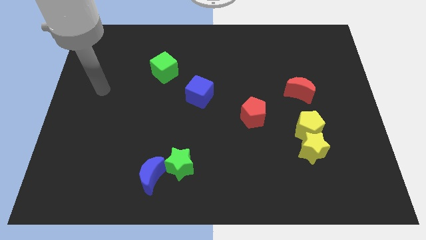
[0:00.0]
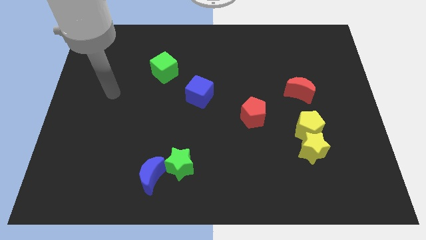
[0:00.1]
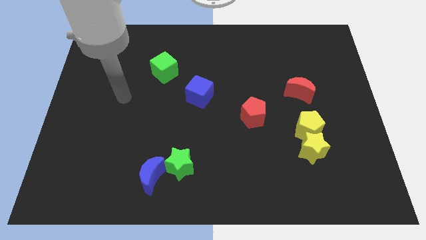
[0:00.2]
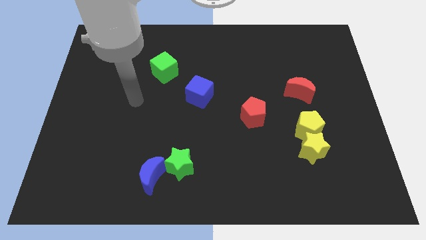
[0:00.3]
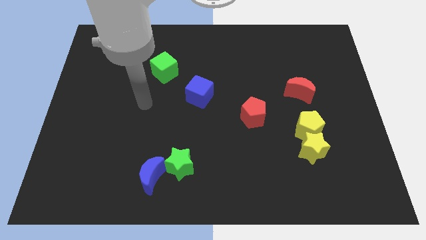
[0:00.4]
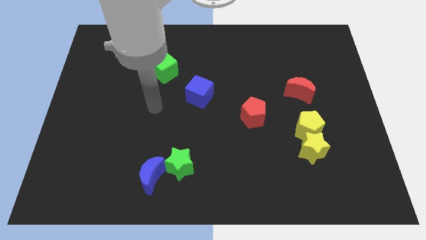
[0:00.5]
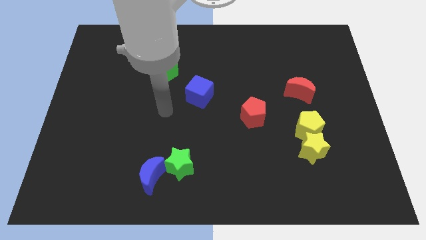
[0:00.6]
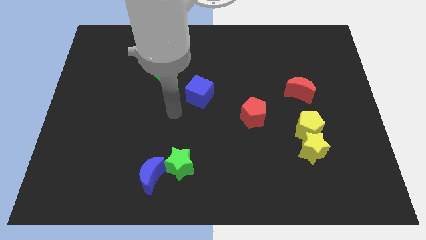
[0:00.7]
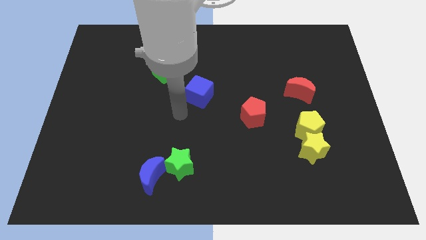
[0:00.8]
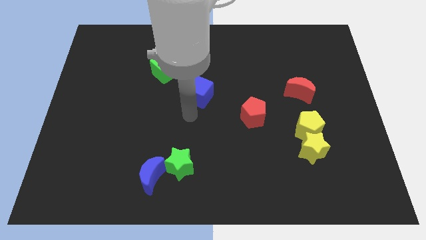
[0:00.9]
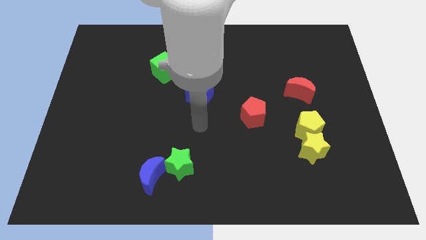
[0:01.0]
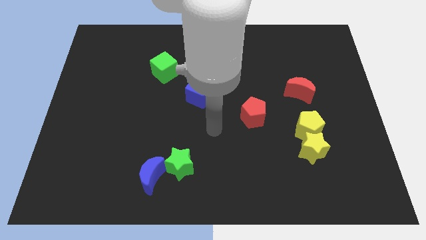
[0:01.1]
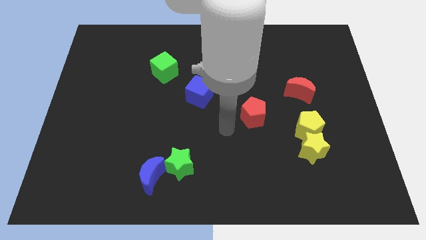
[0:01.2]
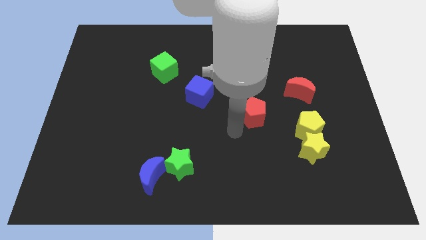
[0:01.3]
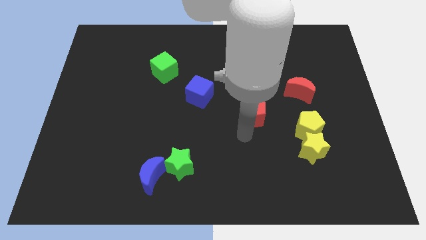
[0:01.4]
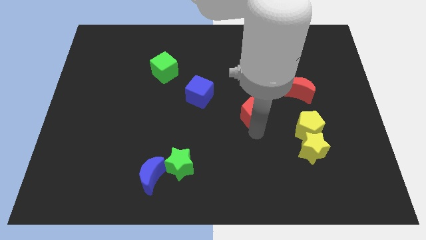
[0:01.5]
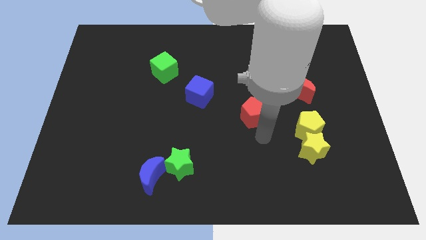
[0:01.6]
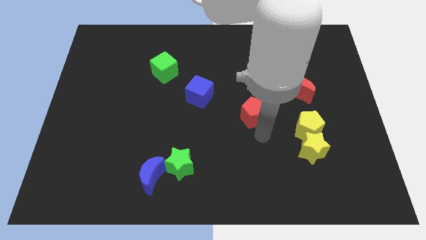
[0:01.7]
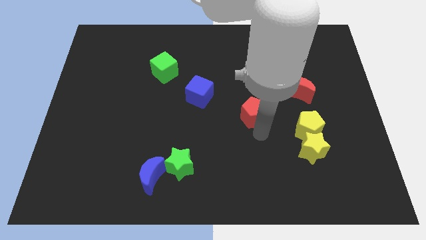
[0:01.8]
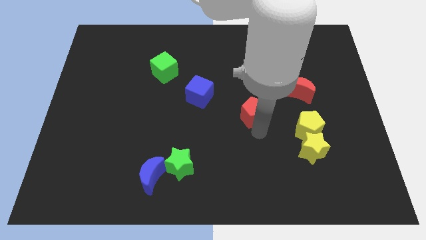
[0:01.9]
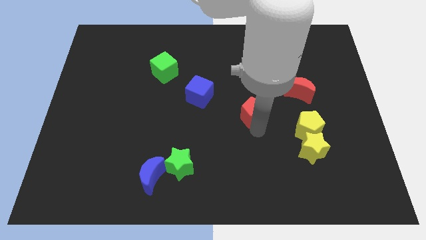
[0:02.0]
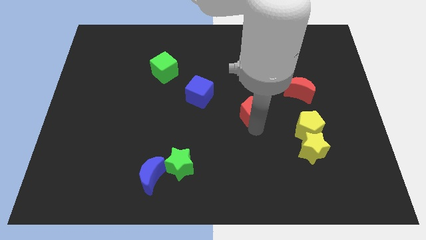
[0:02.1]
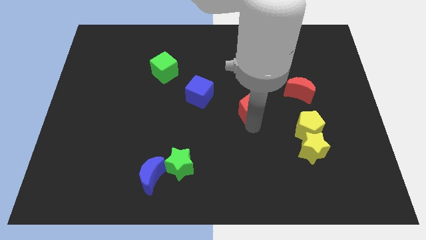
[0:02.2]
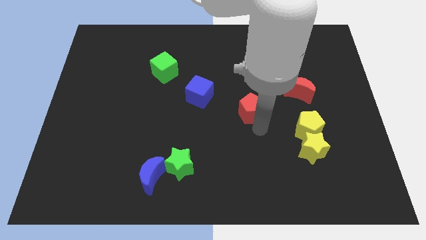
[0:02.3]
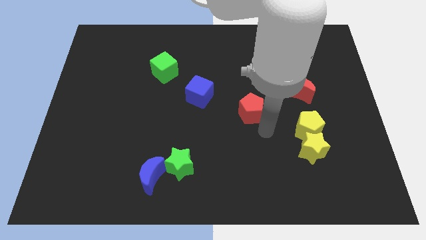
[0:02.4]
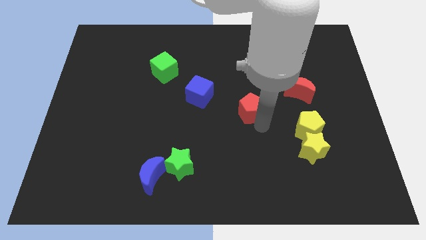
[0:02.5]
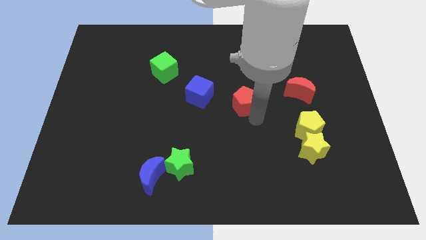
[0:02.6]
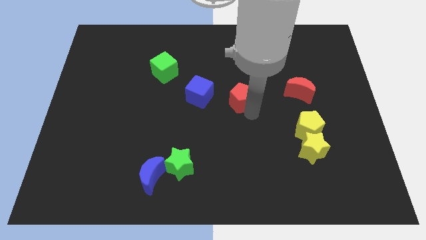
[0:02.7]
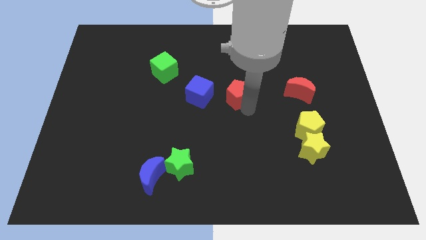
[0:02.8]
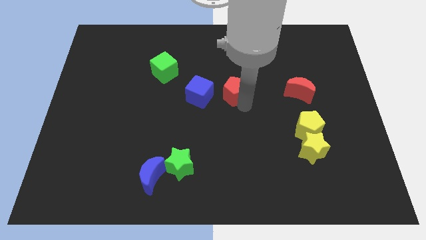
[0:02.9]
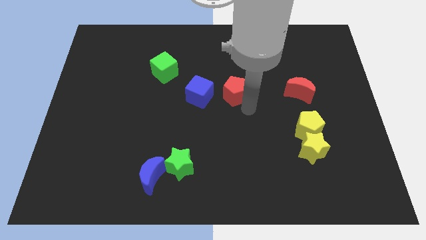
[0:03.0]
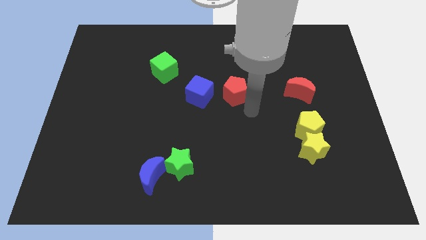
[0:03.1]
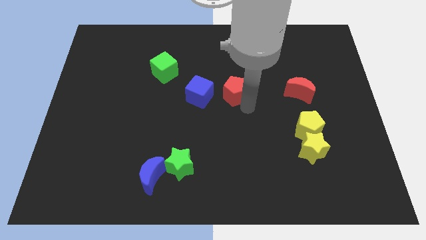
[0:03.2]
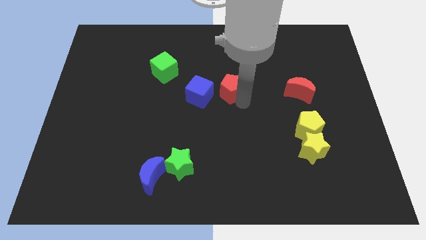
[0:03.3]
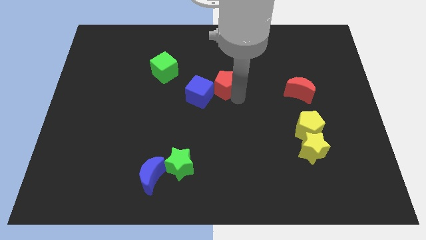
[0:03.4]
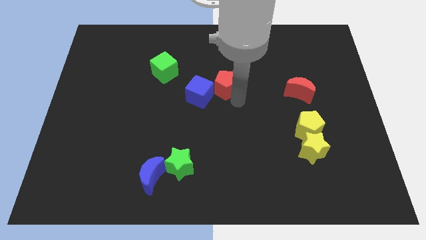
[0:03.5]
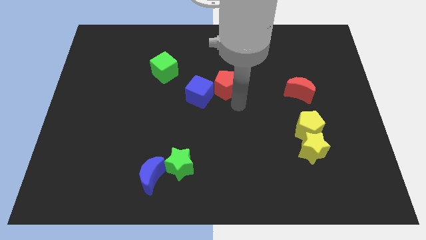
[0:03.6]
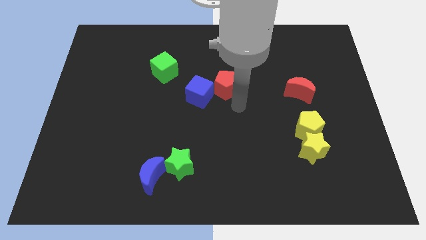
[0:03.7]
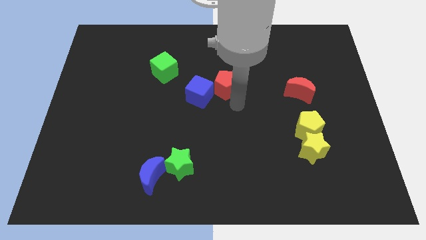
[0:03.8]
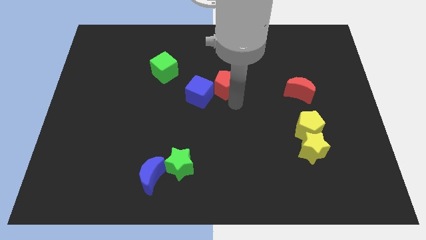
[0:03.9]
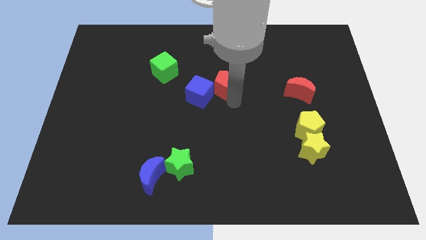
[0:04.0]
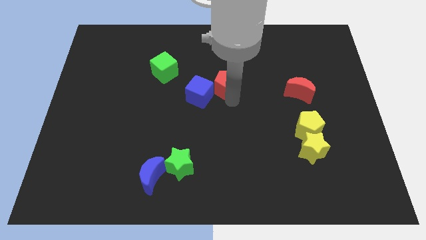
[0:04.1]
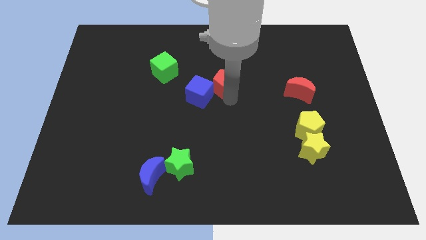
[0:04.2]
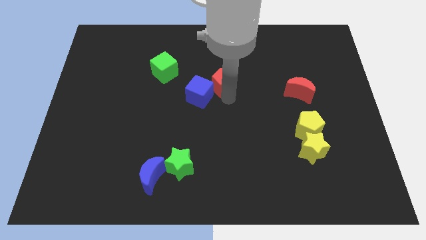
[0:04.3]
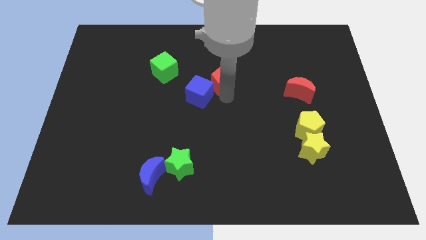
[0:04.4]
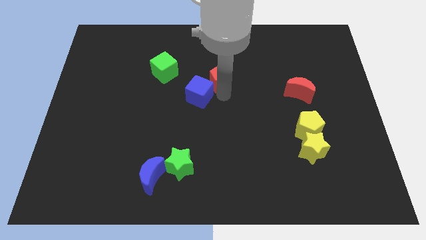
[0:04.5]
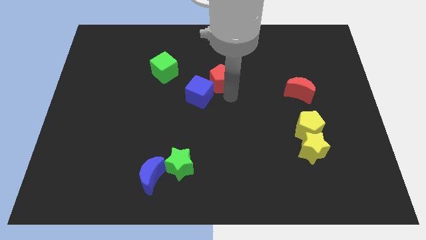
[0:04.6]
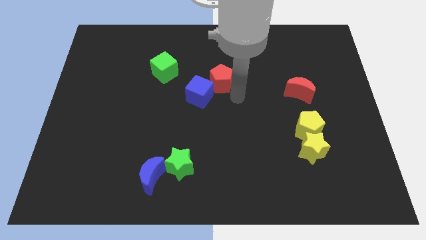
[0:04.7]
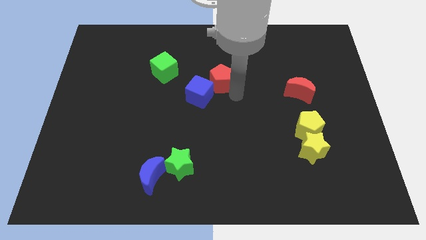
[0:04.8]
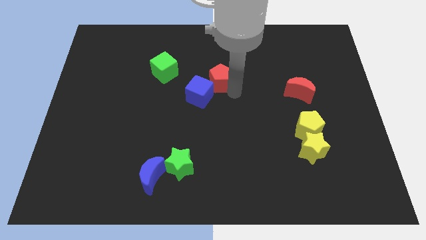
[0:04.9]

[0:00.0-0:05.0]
push the red pentagon to the top side of the blue cube

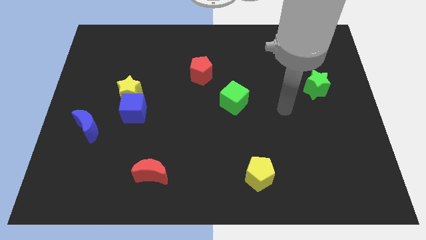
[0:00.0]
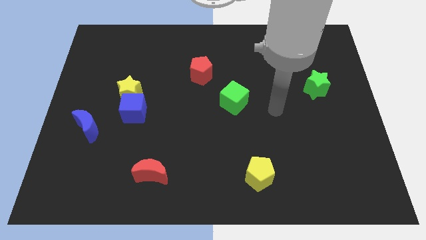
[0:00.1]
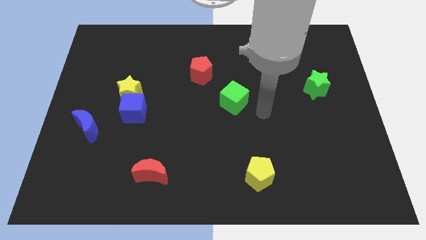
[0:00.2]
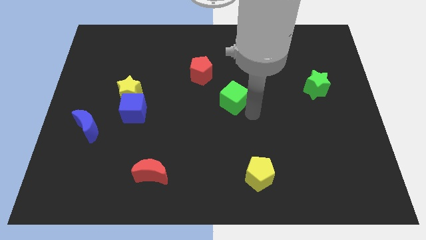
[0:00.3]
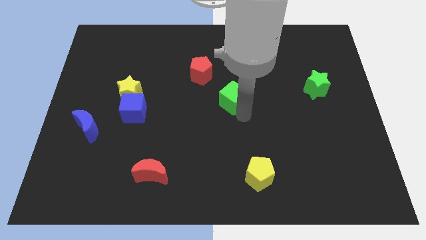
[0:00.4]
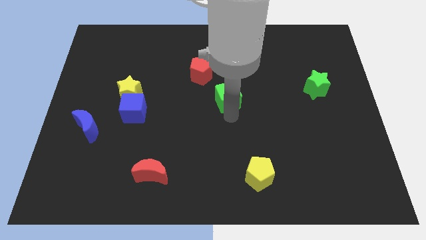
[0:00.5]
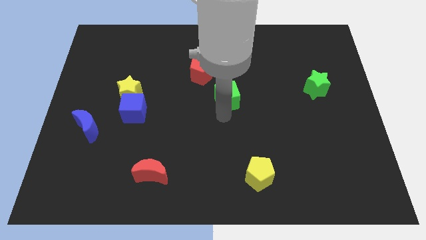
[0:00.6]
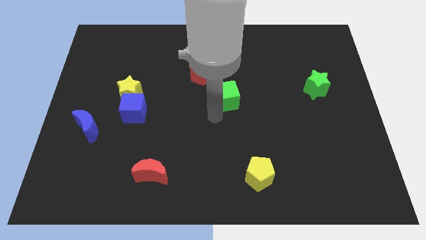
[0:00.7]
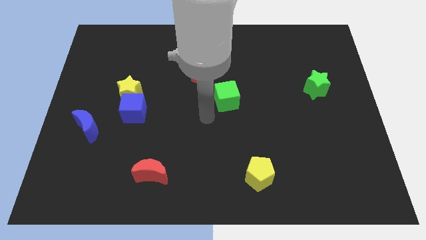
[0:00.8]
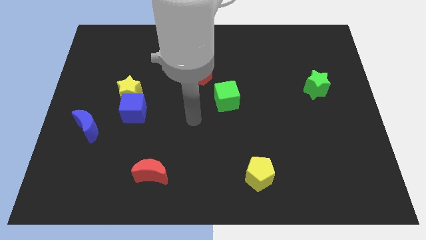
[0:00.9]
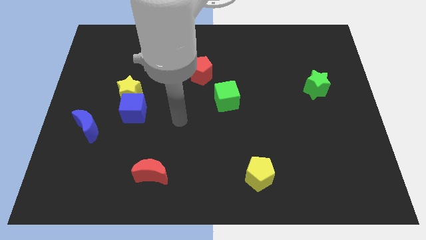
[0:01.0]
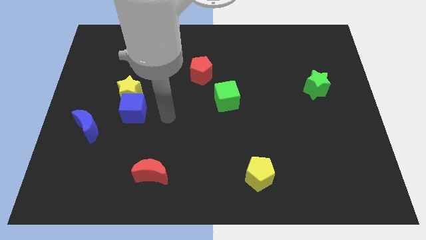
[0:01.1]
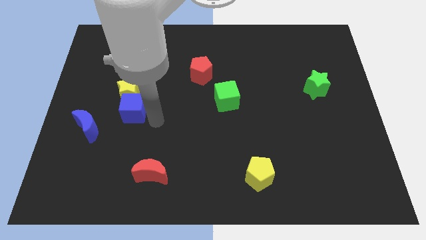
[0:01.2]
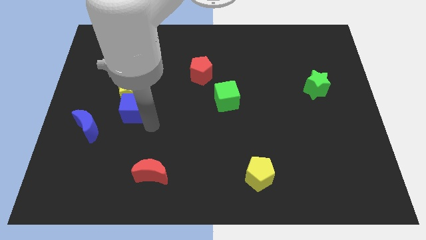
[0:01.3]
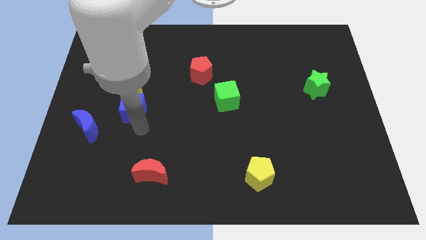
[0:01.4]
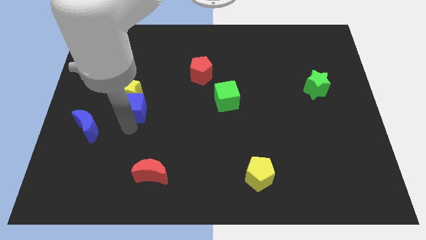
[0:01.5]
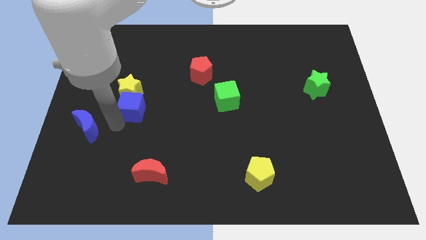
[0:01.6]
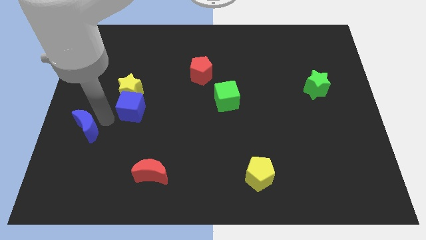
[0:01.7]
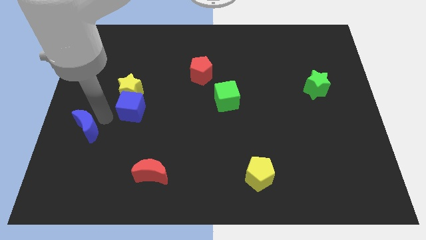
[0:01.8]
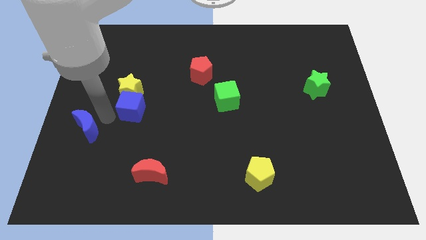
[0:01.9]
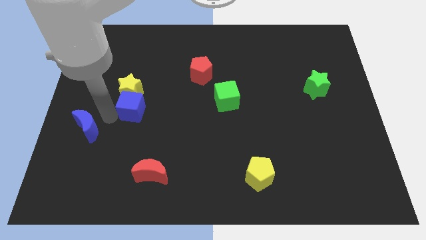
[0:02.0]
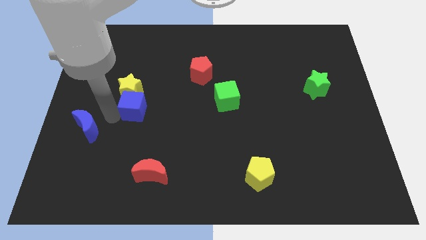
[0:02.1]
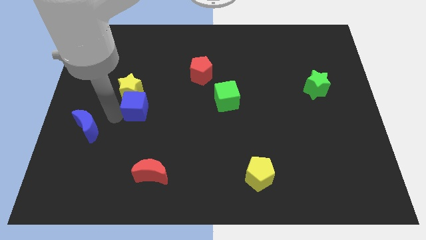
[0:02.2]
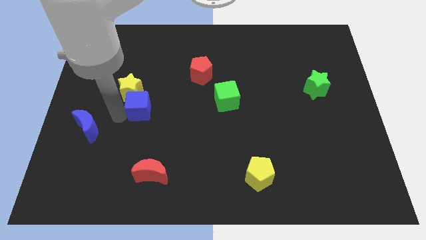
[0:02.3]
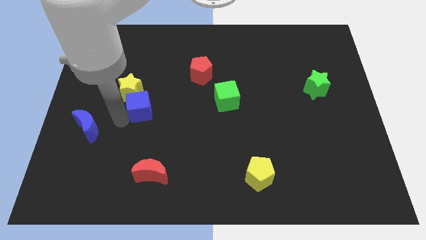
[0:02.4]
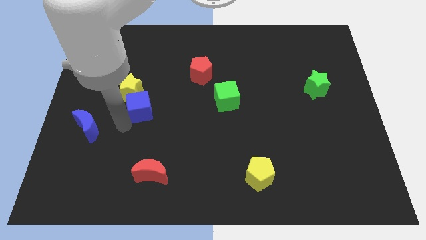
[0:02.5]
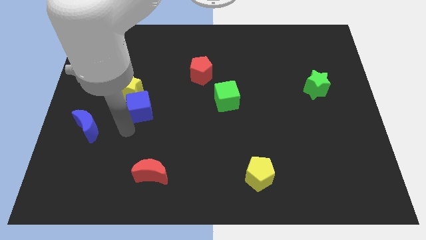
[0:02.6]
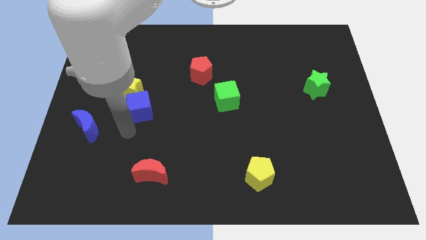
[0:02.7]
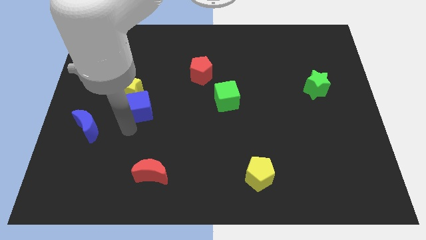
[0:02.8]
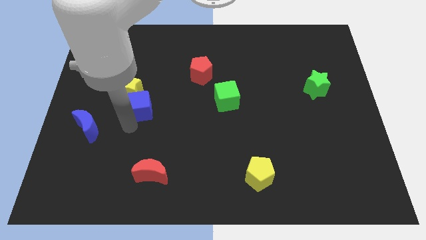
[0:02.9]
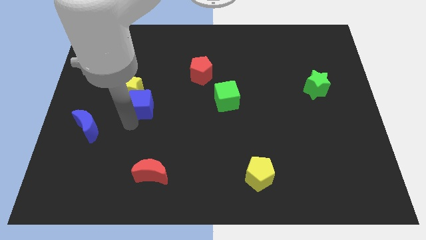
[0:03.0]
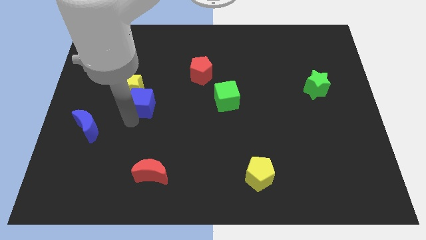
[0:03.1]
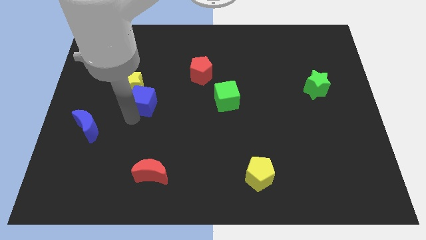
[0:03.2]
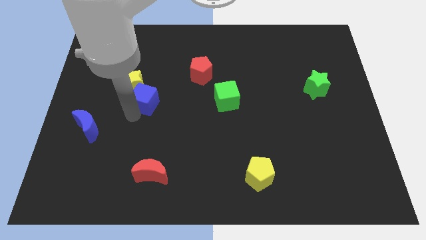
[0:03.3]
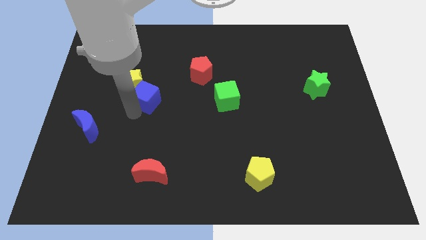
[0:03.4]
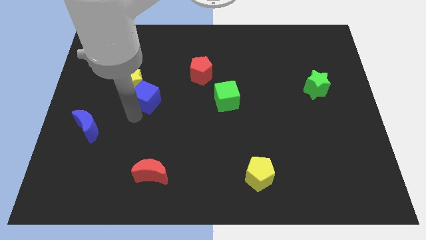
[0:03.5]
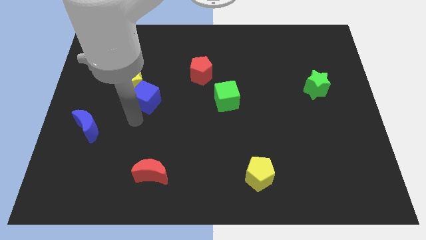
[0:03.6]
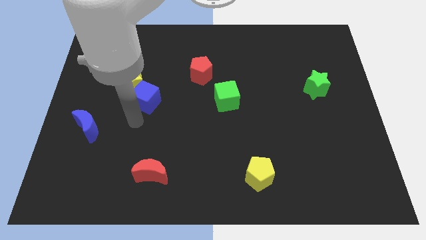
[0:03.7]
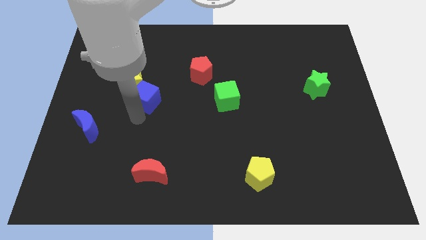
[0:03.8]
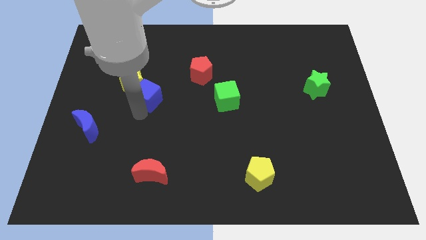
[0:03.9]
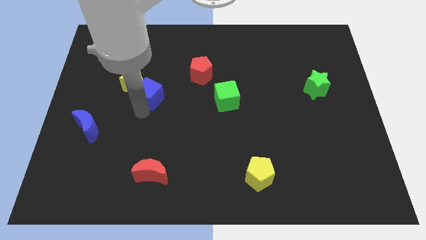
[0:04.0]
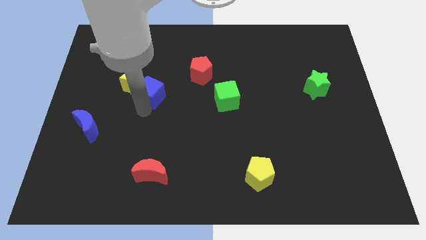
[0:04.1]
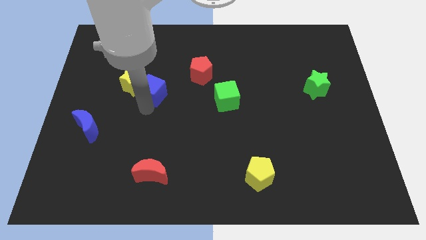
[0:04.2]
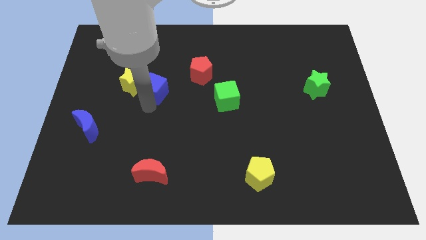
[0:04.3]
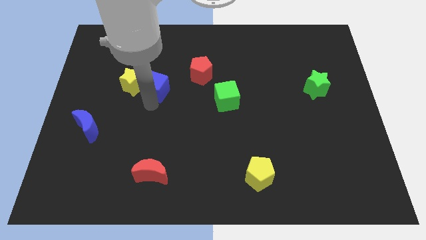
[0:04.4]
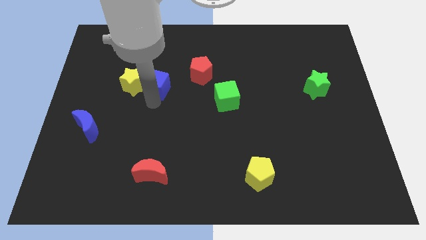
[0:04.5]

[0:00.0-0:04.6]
push the blue cube left of the red pentagon
